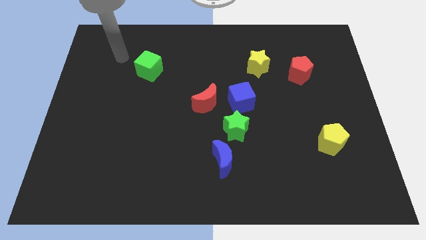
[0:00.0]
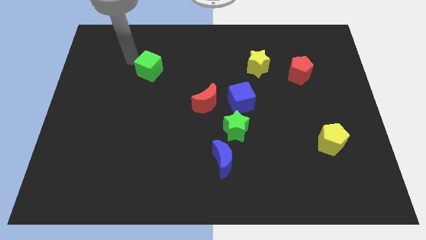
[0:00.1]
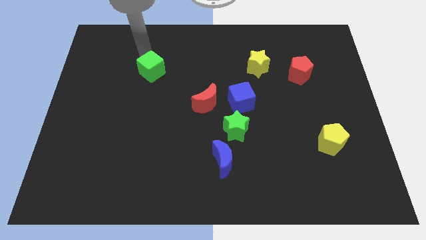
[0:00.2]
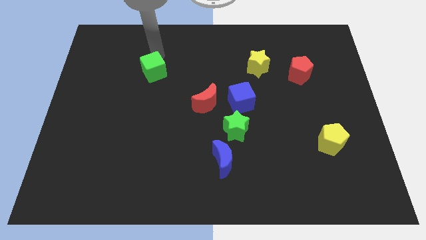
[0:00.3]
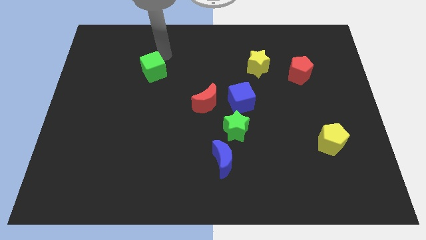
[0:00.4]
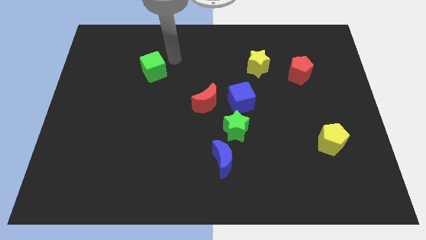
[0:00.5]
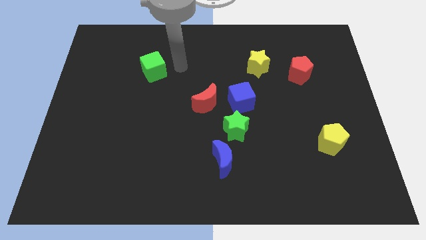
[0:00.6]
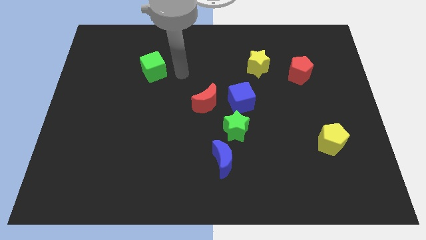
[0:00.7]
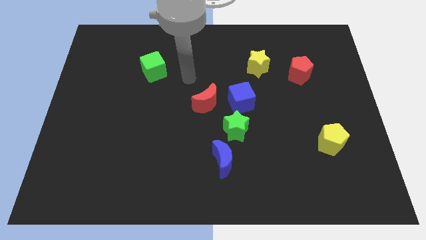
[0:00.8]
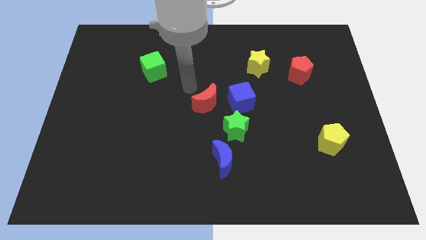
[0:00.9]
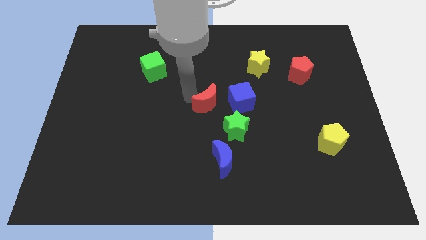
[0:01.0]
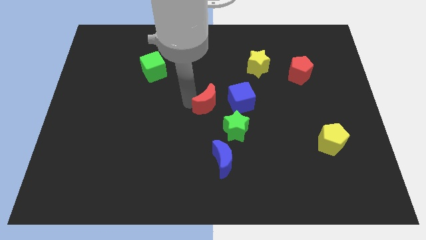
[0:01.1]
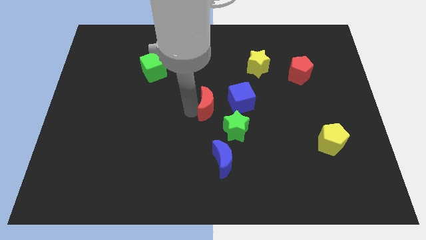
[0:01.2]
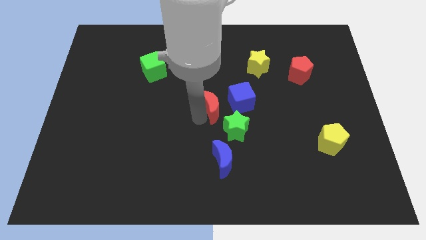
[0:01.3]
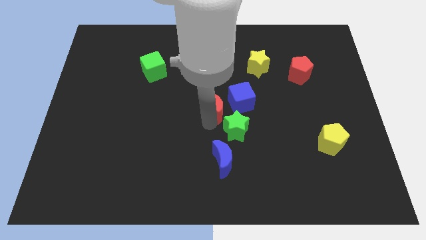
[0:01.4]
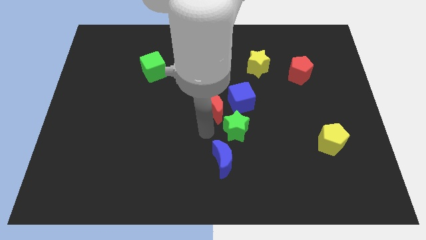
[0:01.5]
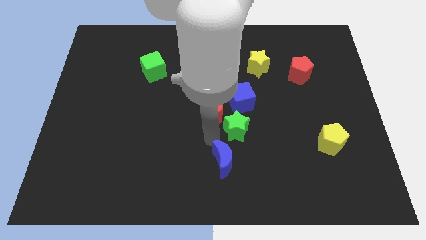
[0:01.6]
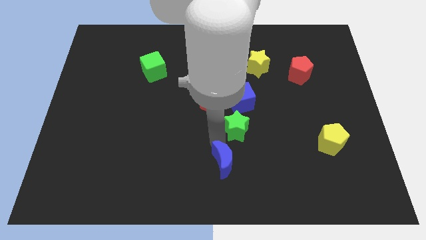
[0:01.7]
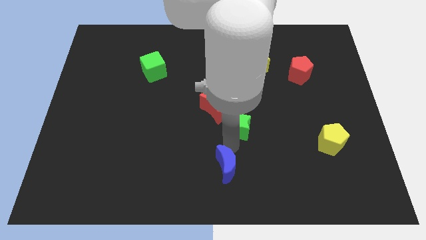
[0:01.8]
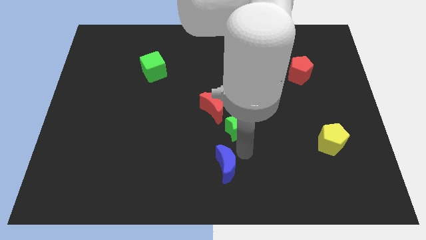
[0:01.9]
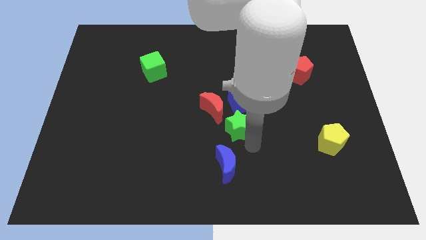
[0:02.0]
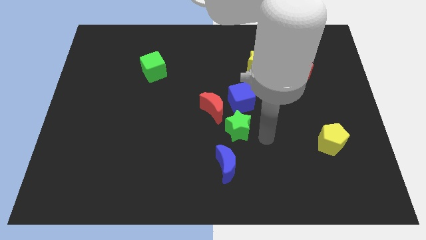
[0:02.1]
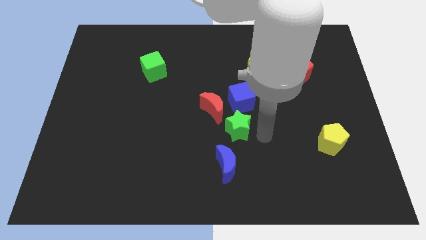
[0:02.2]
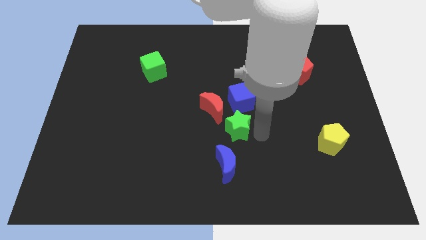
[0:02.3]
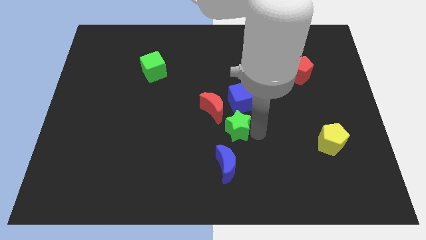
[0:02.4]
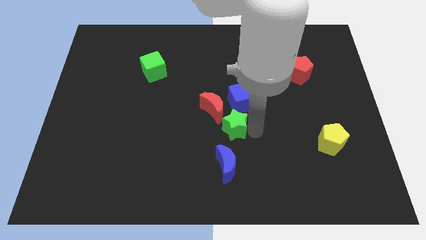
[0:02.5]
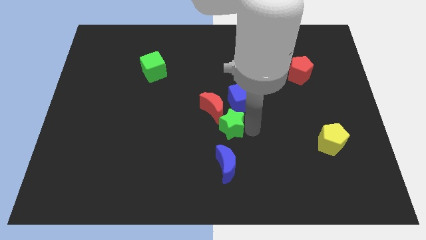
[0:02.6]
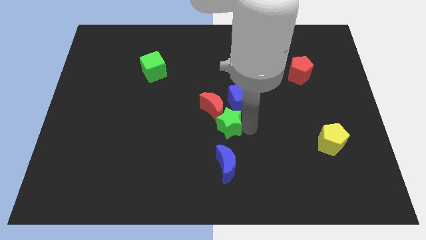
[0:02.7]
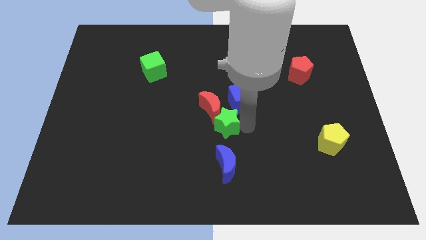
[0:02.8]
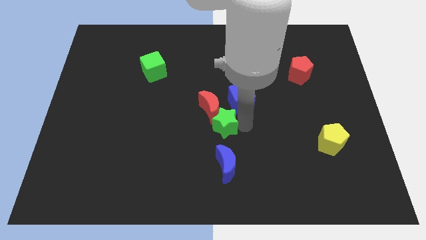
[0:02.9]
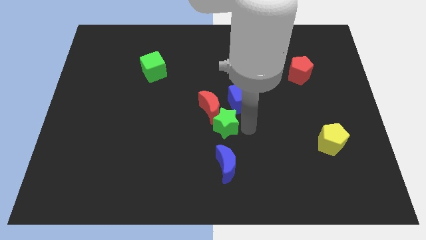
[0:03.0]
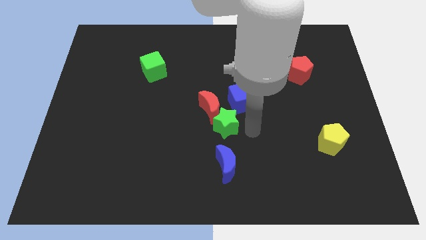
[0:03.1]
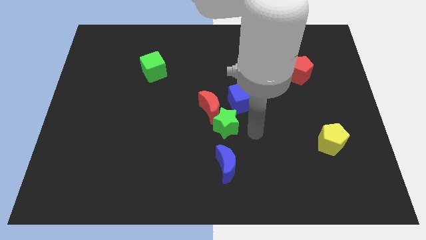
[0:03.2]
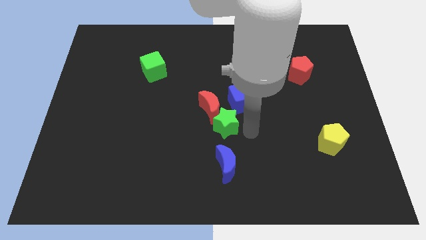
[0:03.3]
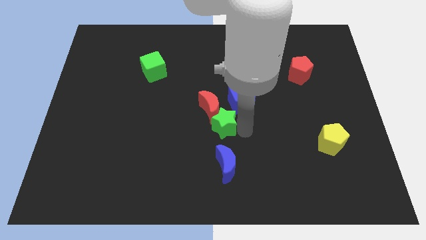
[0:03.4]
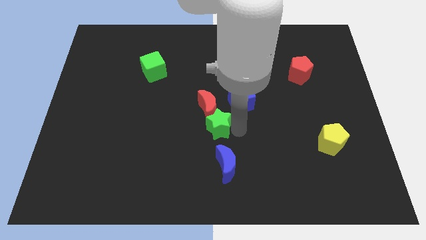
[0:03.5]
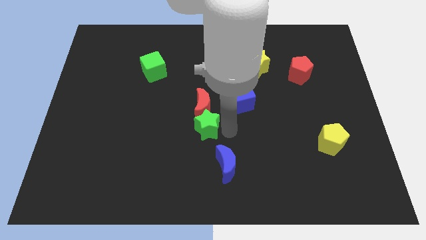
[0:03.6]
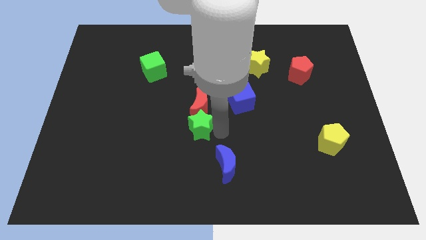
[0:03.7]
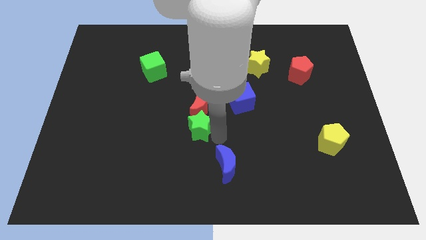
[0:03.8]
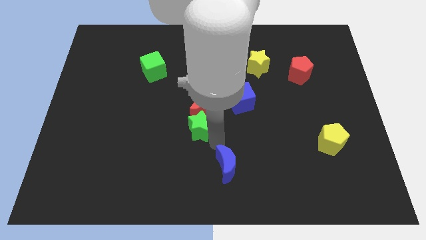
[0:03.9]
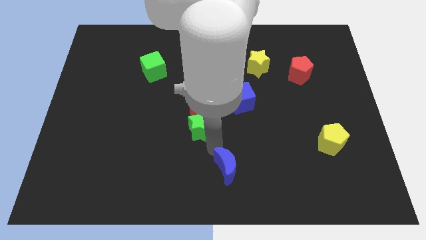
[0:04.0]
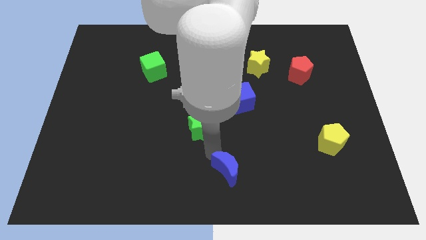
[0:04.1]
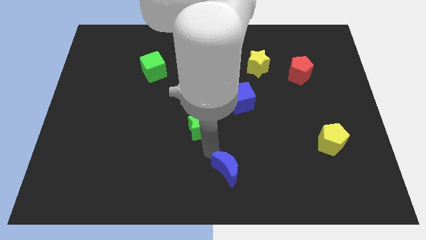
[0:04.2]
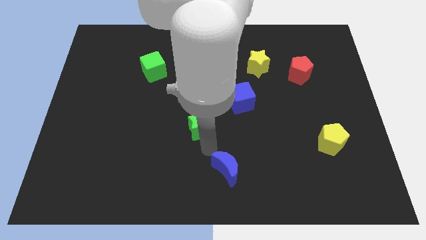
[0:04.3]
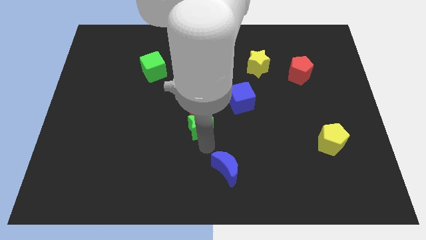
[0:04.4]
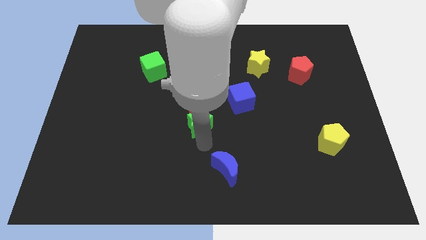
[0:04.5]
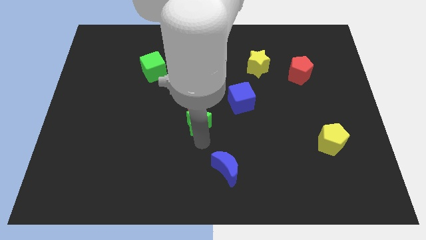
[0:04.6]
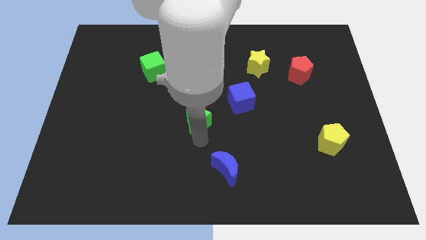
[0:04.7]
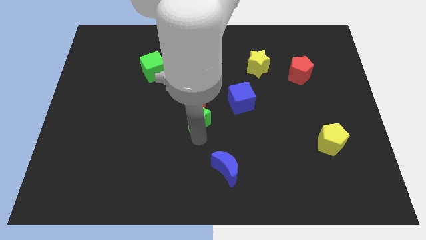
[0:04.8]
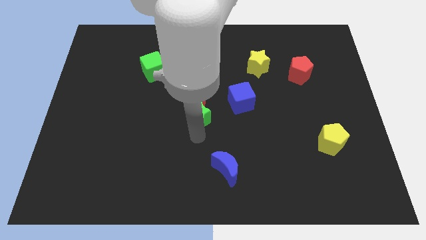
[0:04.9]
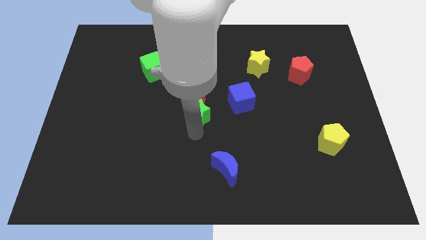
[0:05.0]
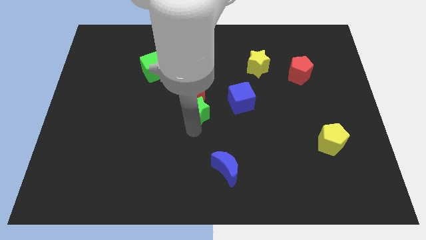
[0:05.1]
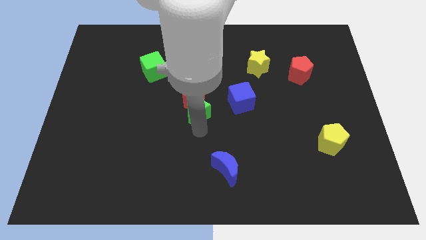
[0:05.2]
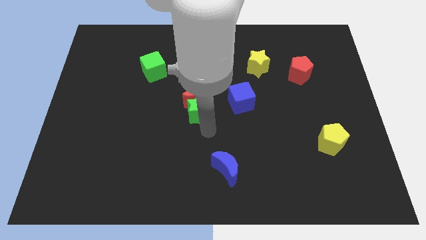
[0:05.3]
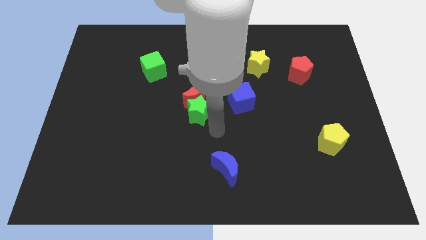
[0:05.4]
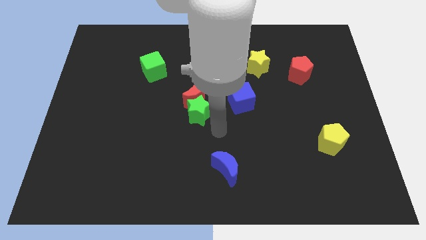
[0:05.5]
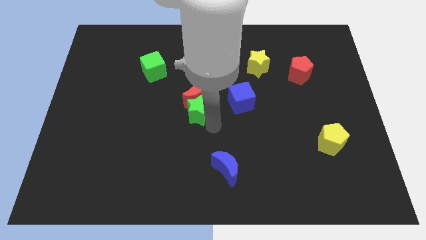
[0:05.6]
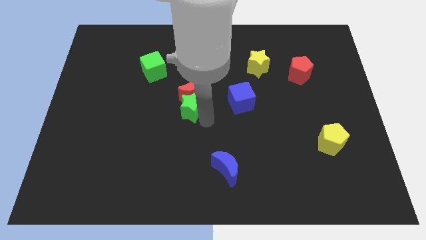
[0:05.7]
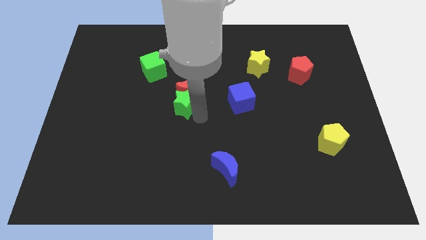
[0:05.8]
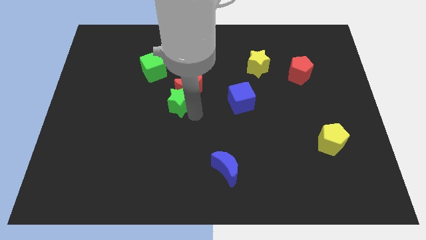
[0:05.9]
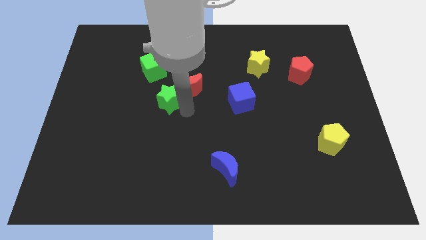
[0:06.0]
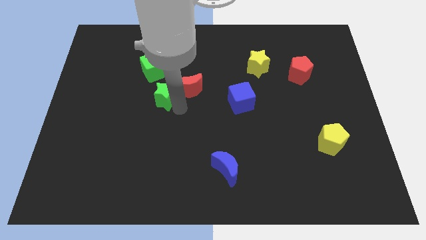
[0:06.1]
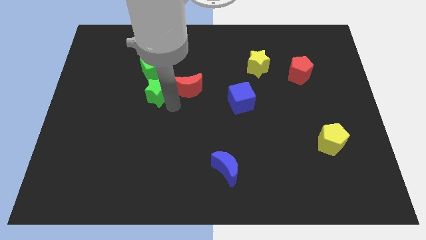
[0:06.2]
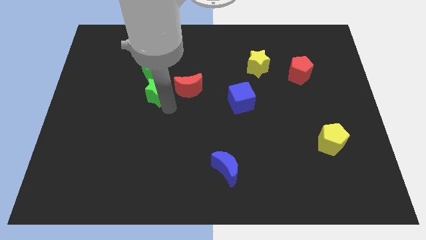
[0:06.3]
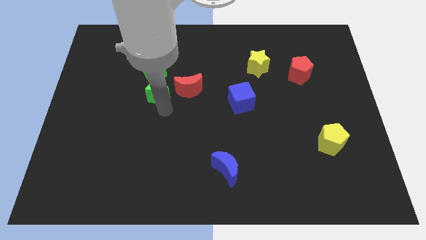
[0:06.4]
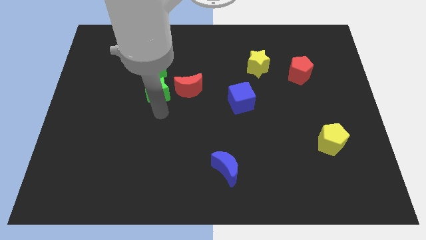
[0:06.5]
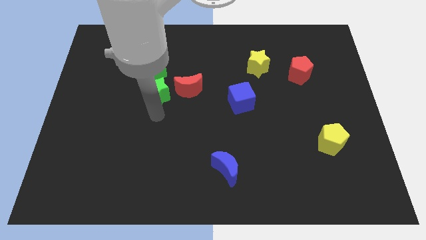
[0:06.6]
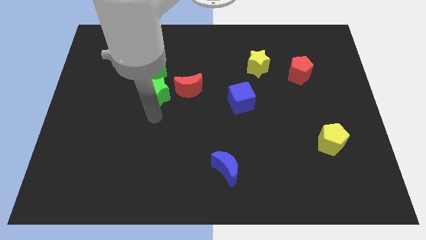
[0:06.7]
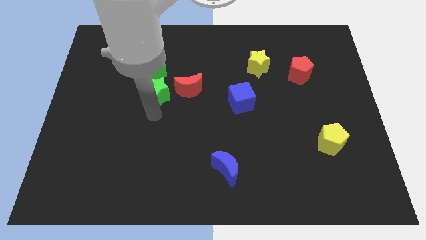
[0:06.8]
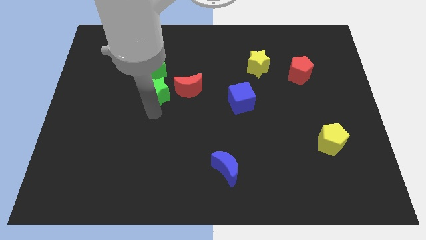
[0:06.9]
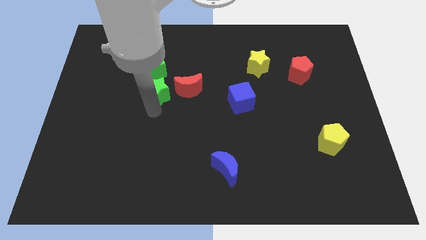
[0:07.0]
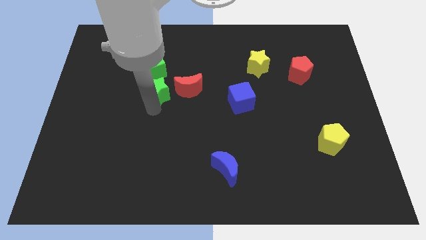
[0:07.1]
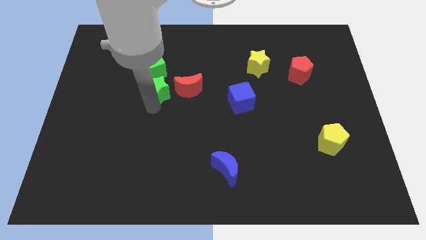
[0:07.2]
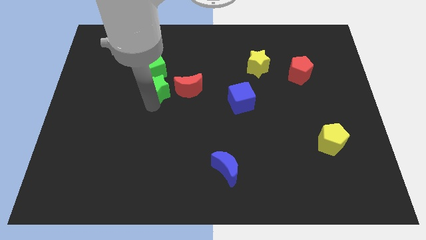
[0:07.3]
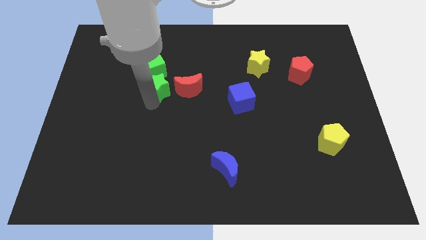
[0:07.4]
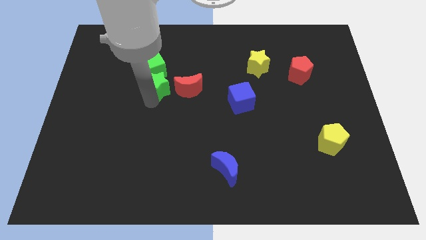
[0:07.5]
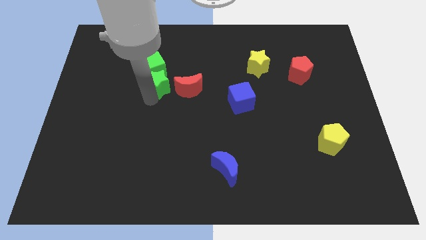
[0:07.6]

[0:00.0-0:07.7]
put the green star towards the green cube
